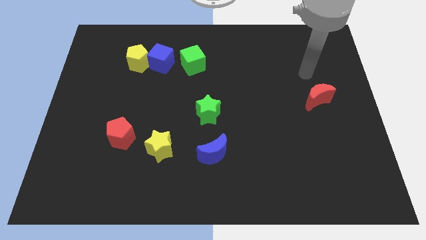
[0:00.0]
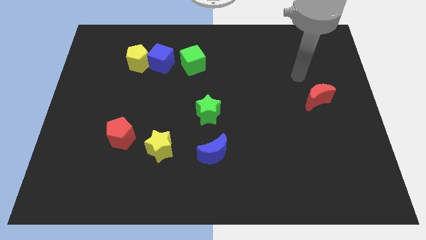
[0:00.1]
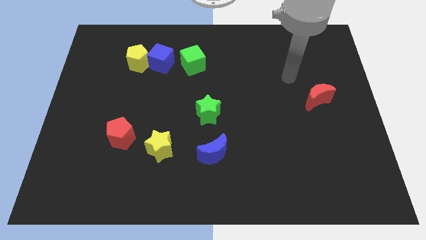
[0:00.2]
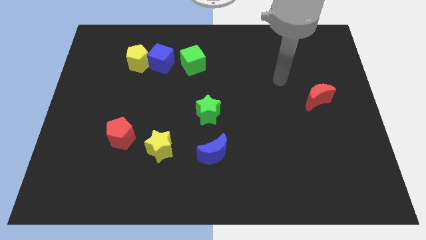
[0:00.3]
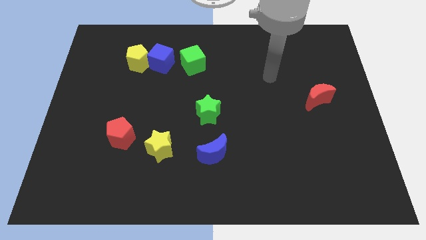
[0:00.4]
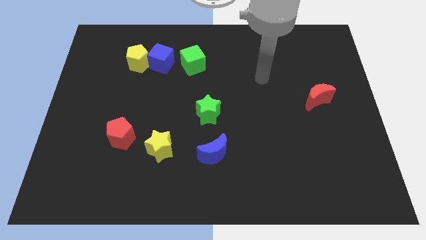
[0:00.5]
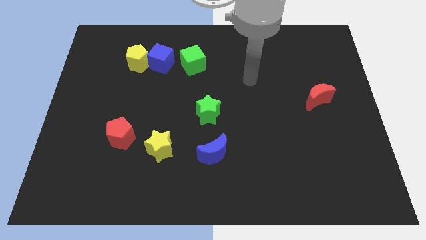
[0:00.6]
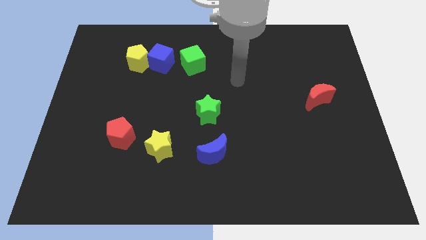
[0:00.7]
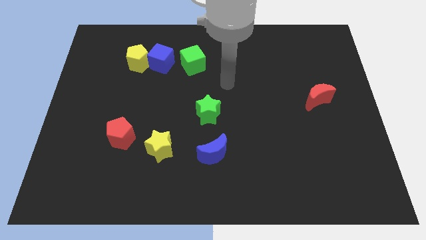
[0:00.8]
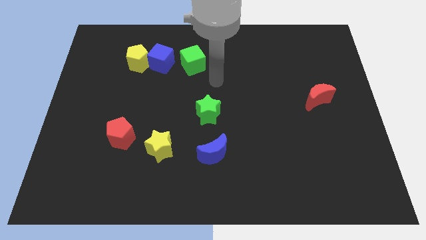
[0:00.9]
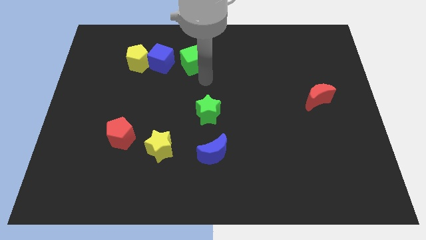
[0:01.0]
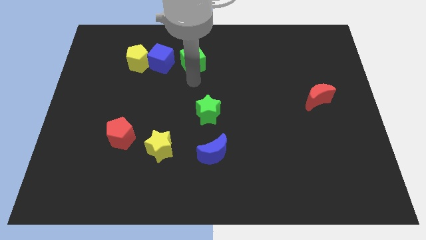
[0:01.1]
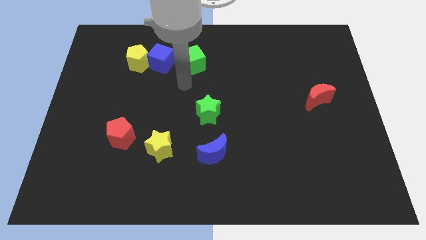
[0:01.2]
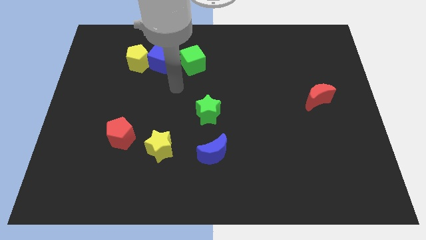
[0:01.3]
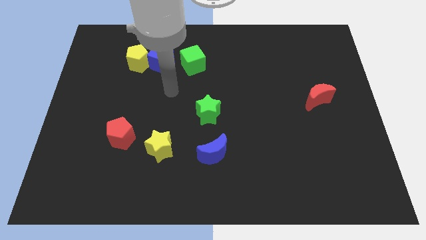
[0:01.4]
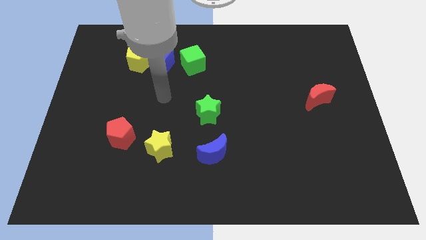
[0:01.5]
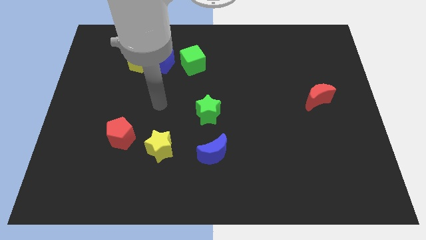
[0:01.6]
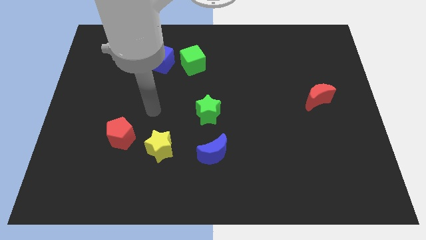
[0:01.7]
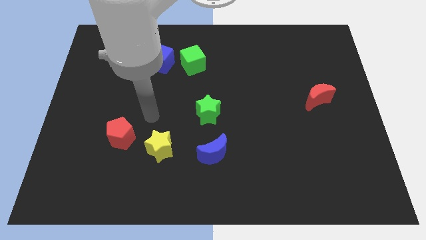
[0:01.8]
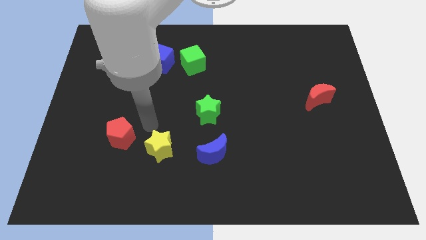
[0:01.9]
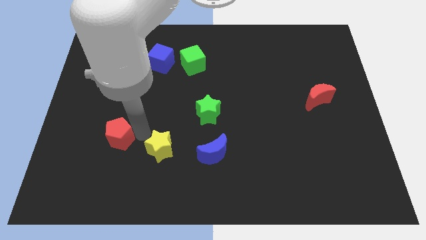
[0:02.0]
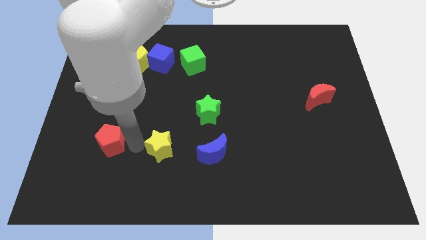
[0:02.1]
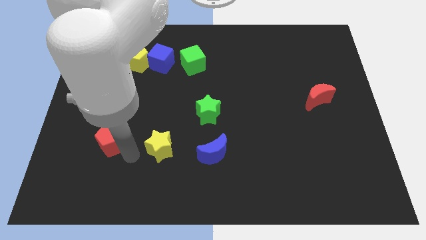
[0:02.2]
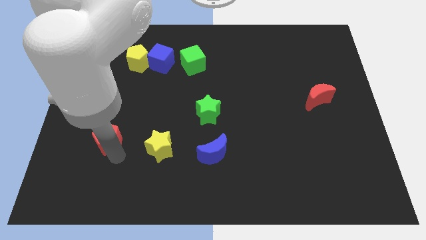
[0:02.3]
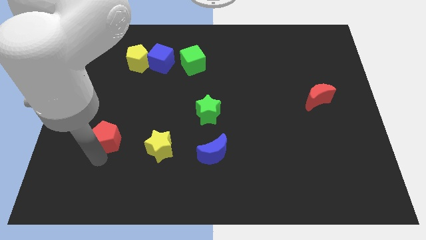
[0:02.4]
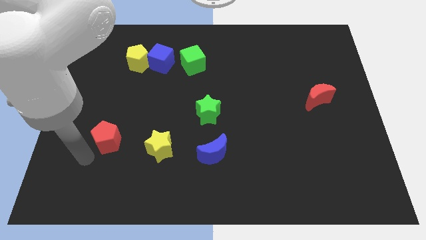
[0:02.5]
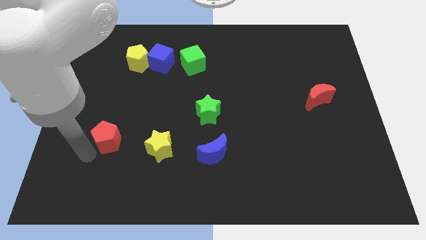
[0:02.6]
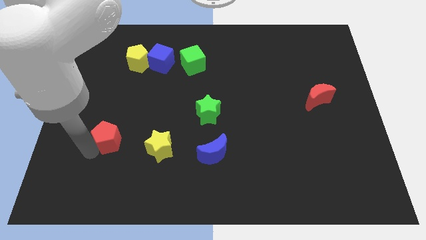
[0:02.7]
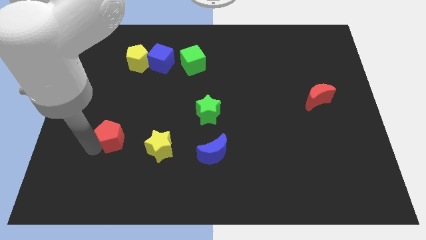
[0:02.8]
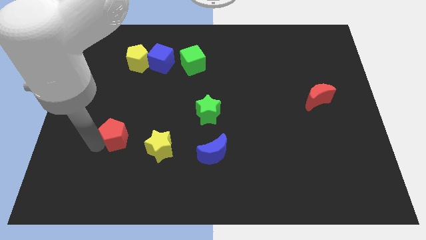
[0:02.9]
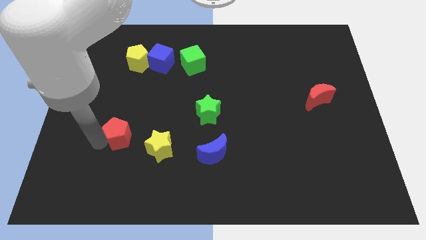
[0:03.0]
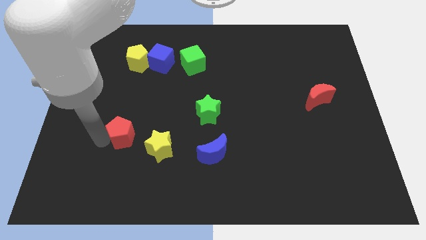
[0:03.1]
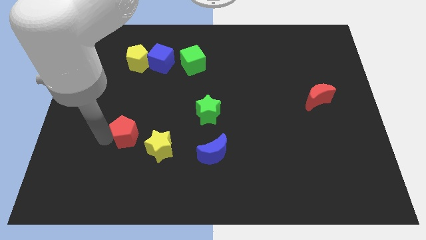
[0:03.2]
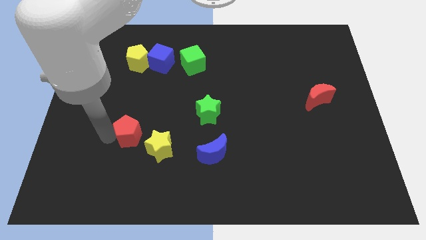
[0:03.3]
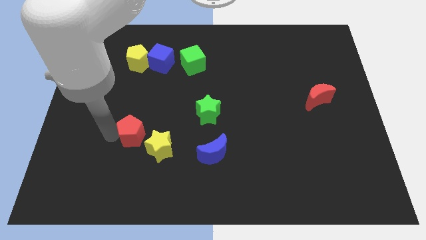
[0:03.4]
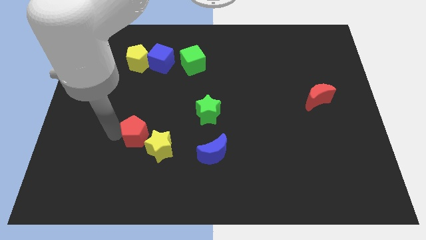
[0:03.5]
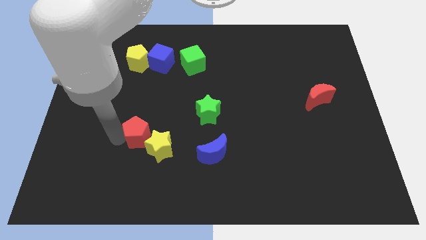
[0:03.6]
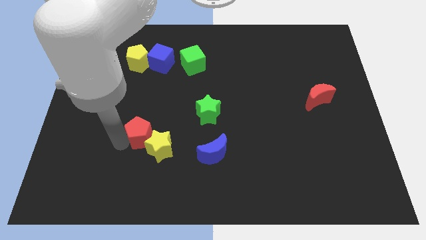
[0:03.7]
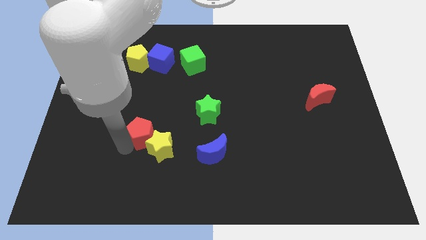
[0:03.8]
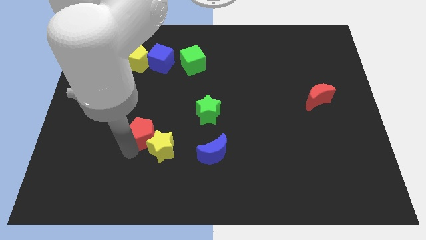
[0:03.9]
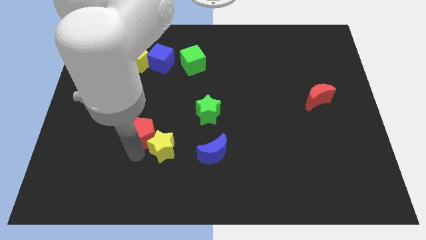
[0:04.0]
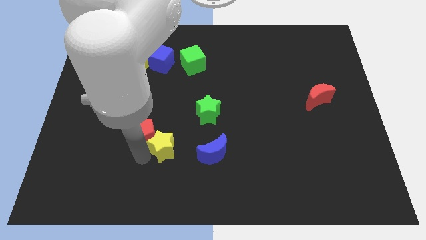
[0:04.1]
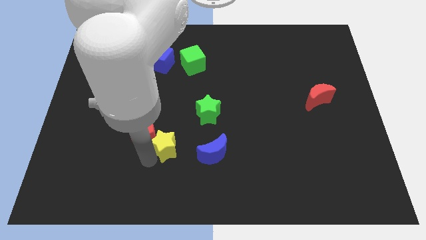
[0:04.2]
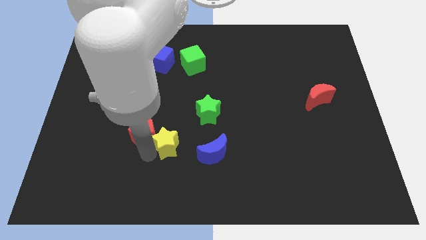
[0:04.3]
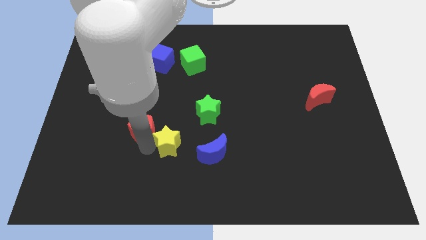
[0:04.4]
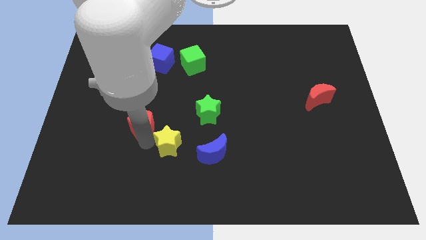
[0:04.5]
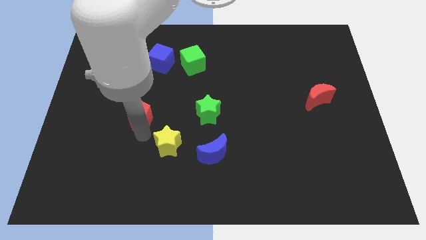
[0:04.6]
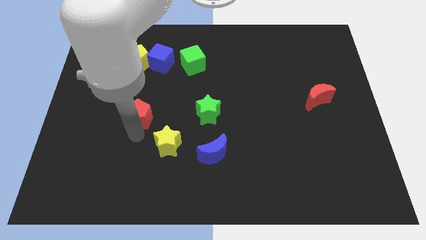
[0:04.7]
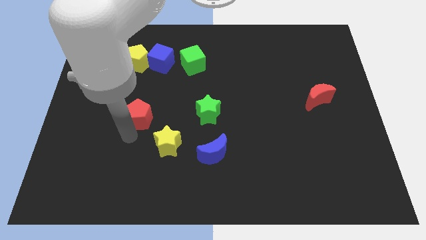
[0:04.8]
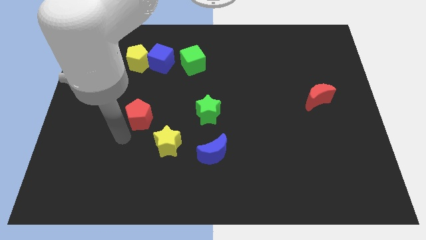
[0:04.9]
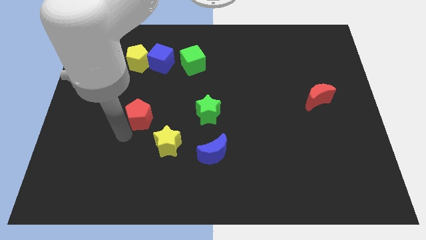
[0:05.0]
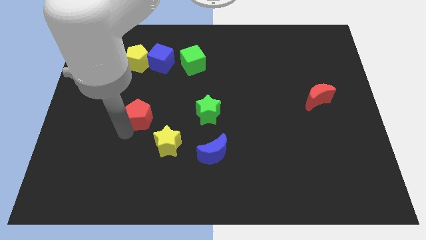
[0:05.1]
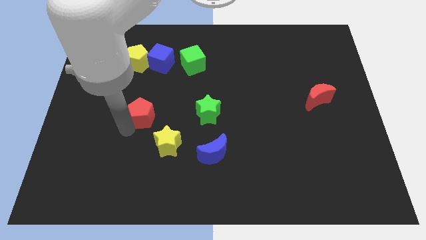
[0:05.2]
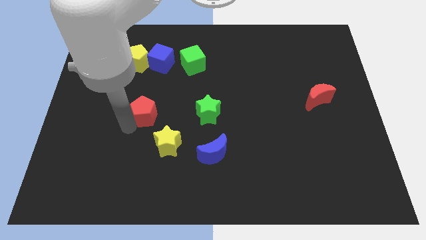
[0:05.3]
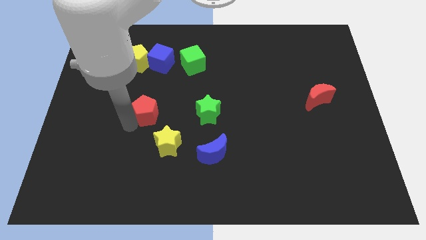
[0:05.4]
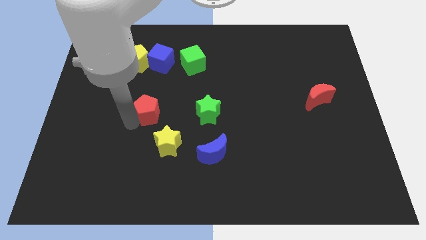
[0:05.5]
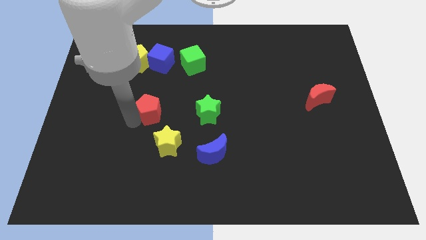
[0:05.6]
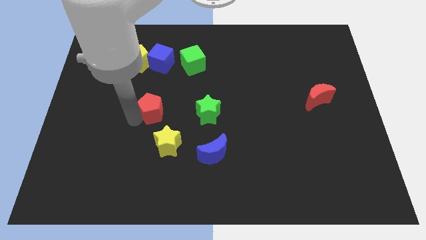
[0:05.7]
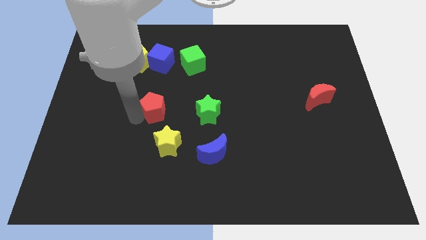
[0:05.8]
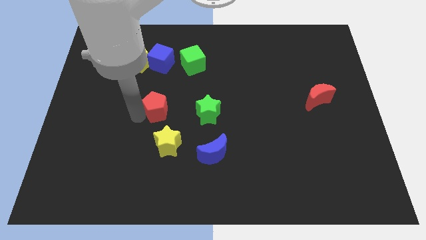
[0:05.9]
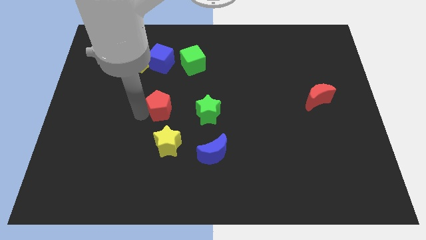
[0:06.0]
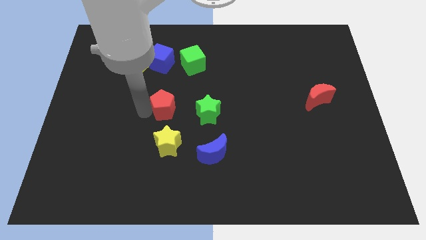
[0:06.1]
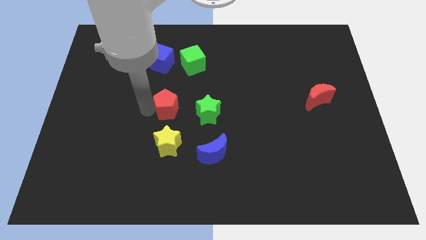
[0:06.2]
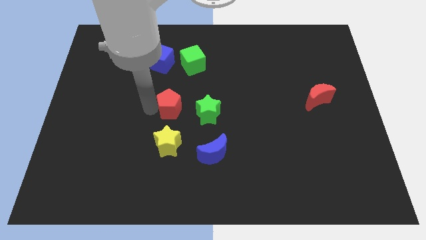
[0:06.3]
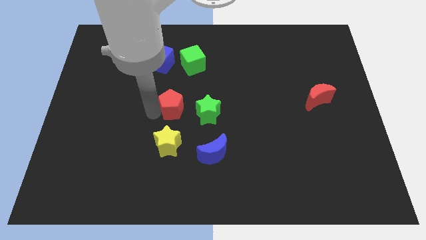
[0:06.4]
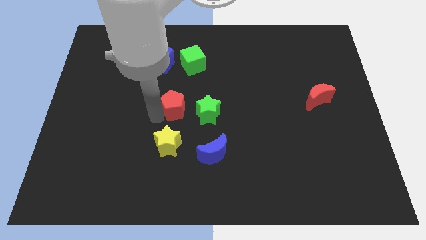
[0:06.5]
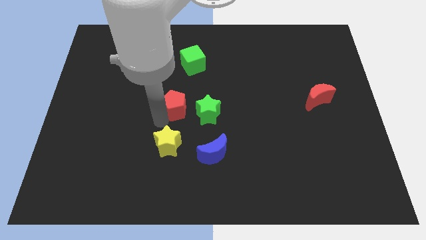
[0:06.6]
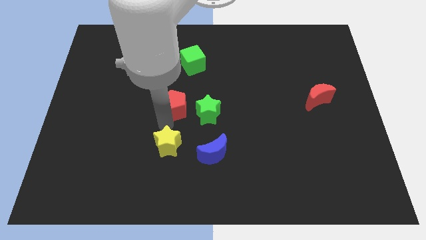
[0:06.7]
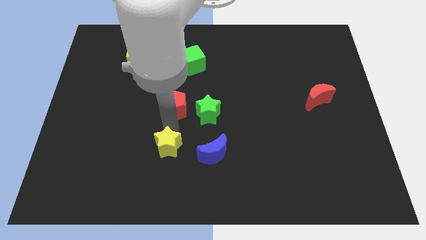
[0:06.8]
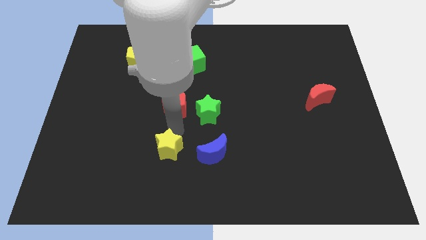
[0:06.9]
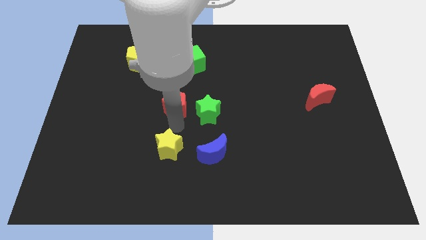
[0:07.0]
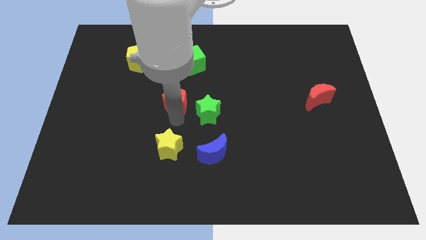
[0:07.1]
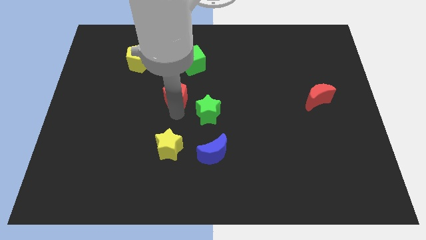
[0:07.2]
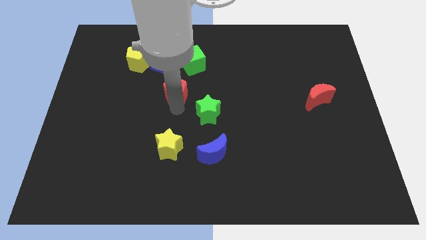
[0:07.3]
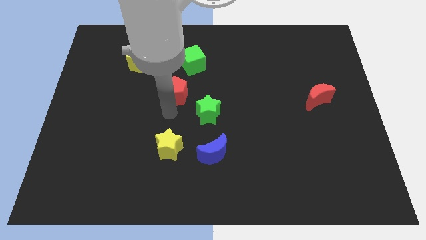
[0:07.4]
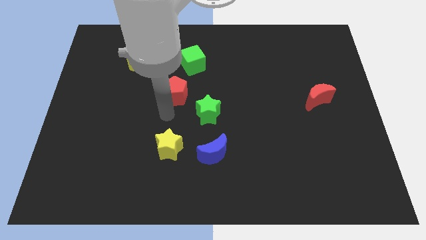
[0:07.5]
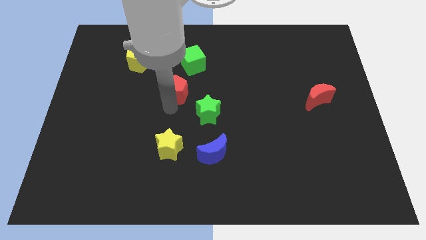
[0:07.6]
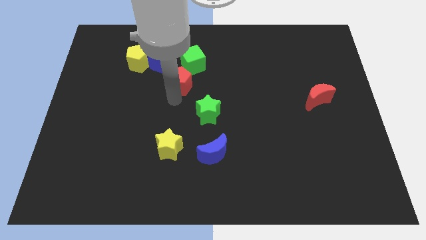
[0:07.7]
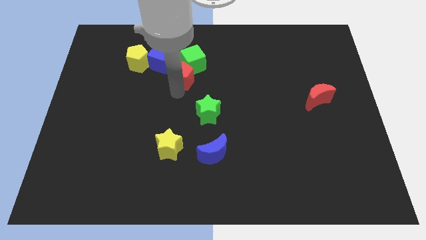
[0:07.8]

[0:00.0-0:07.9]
slide the red pentagon next to the green cube
